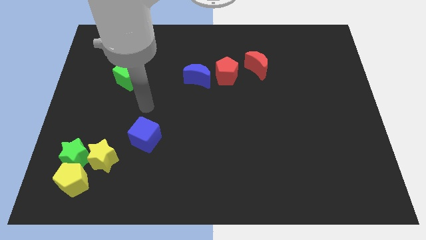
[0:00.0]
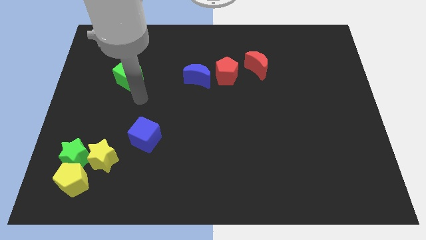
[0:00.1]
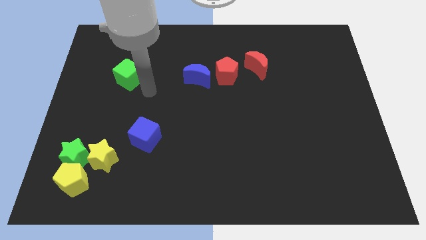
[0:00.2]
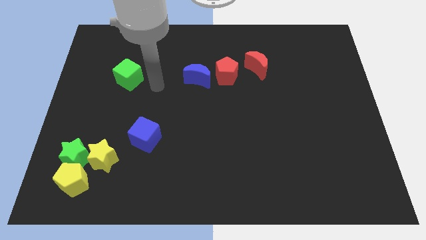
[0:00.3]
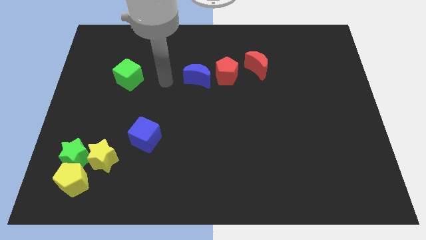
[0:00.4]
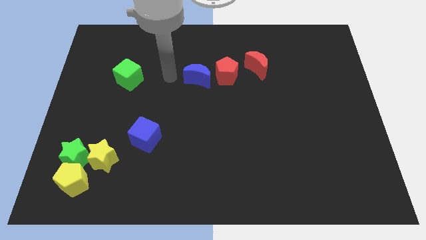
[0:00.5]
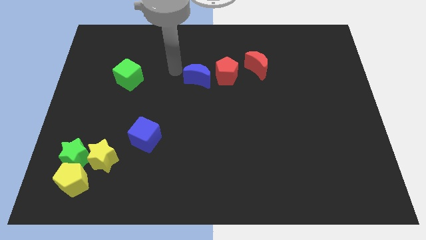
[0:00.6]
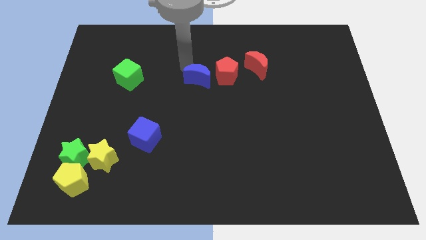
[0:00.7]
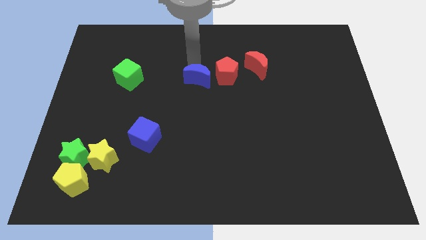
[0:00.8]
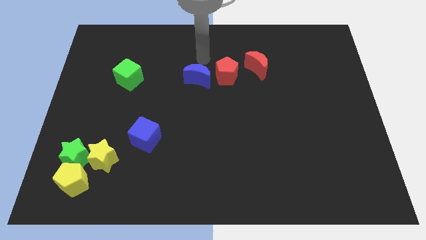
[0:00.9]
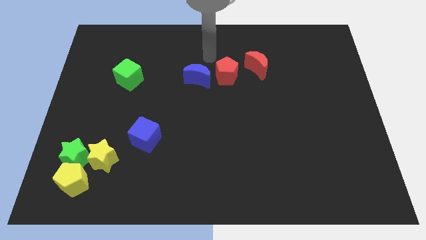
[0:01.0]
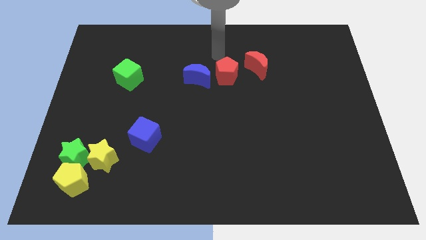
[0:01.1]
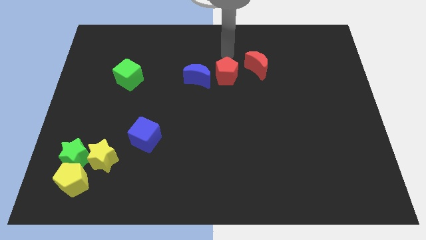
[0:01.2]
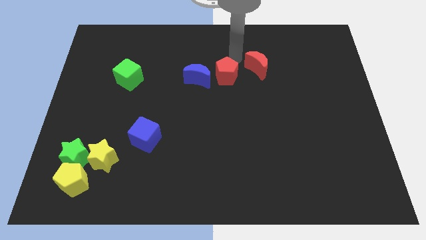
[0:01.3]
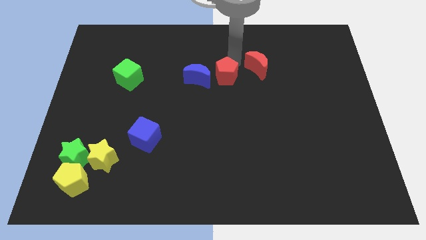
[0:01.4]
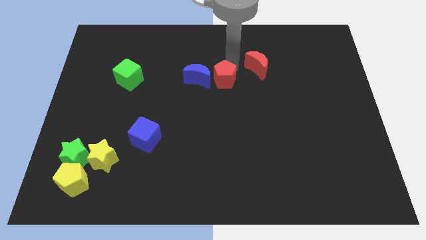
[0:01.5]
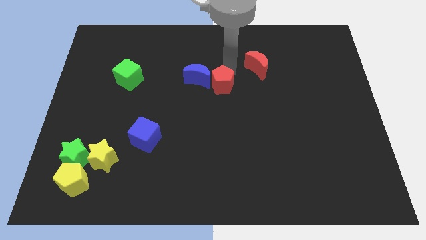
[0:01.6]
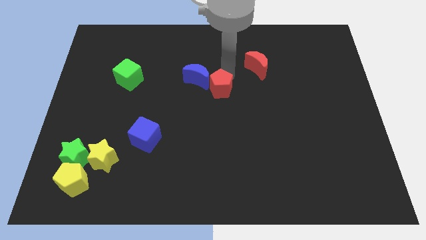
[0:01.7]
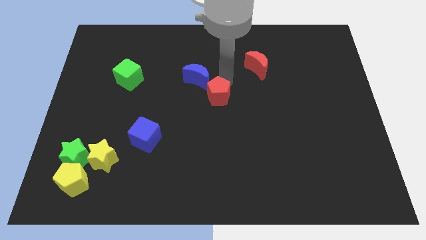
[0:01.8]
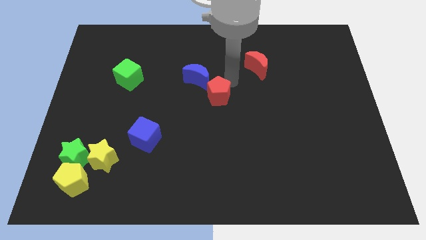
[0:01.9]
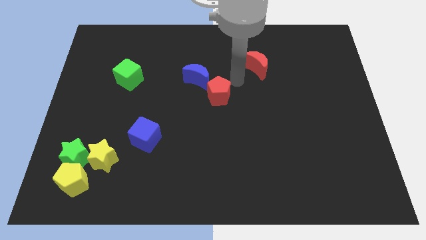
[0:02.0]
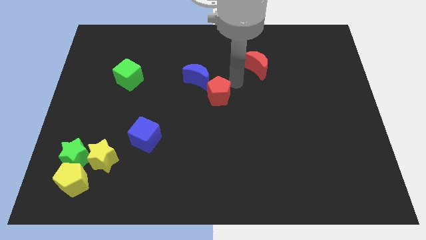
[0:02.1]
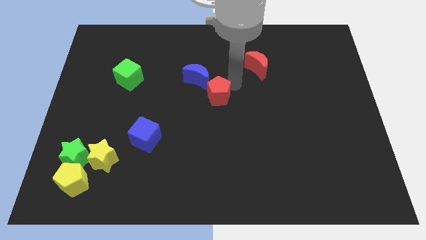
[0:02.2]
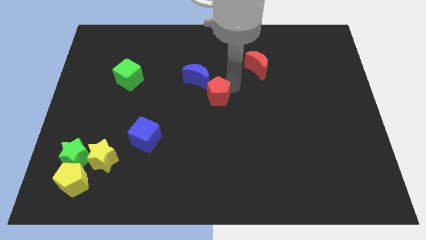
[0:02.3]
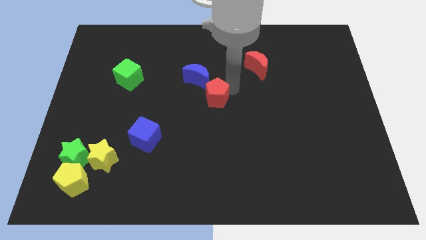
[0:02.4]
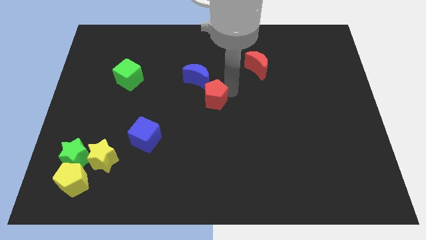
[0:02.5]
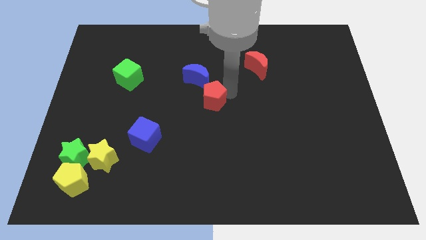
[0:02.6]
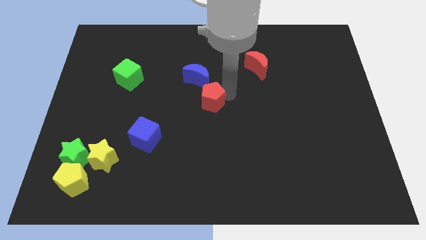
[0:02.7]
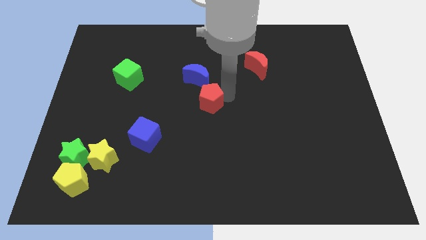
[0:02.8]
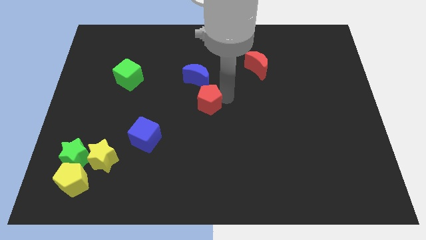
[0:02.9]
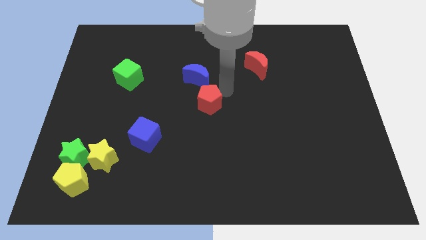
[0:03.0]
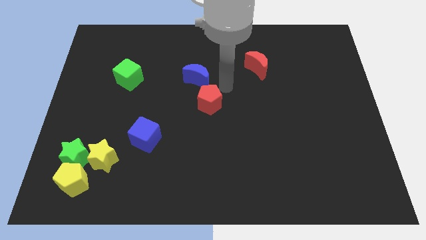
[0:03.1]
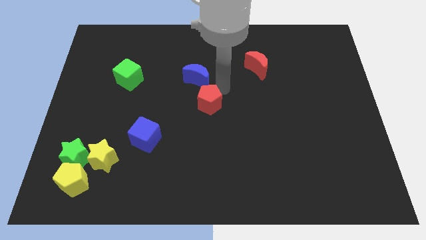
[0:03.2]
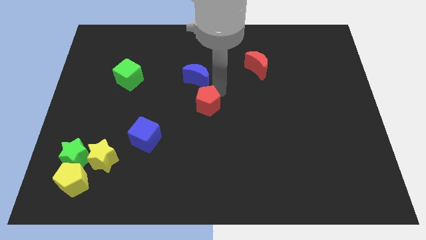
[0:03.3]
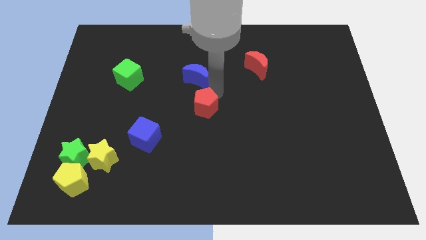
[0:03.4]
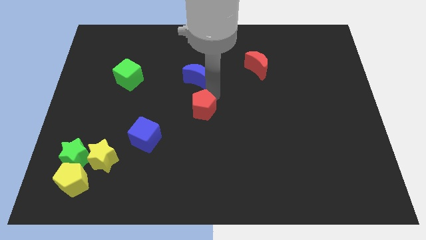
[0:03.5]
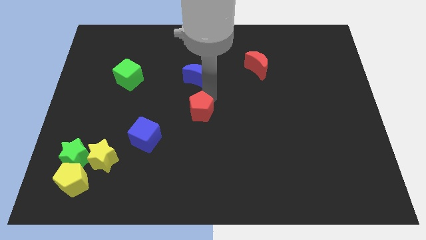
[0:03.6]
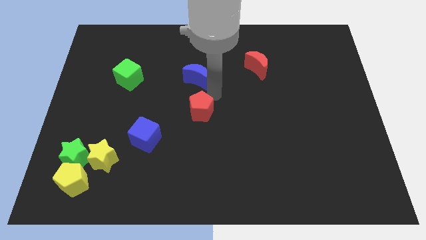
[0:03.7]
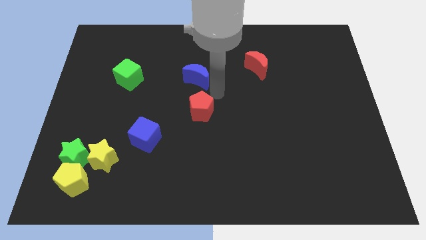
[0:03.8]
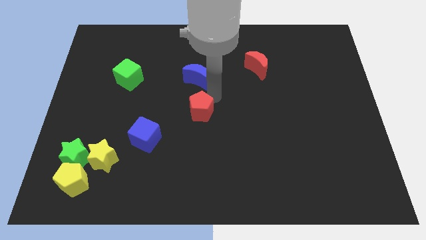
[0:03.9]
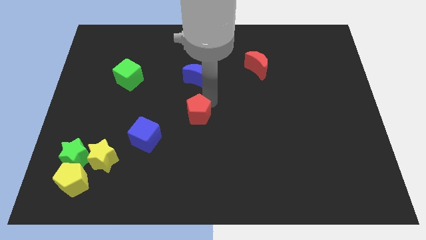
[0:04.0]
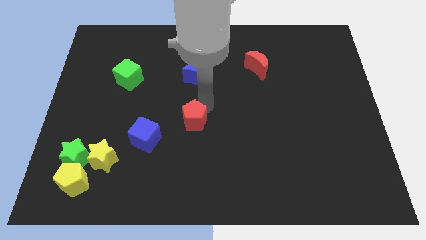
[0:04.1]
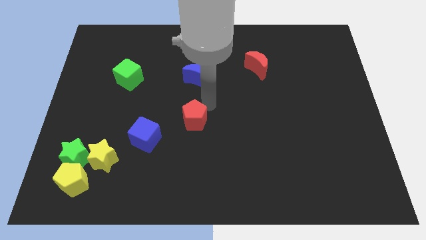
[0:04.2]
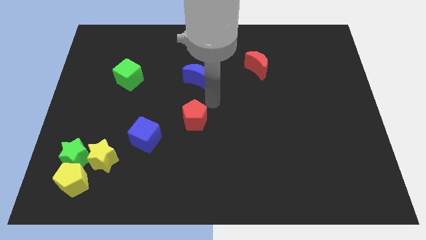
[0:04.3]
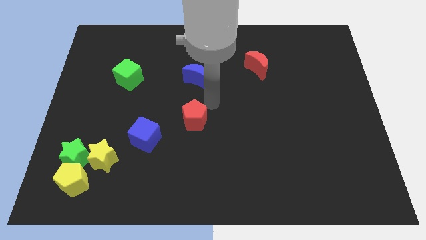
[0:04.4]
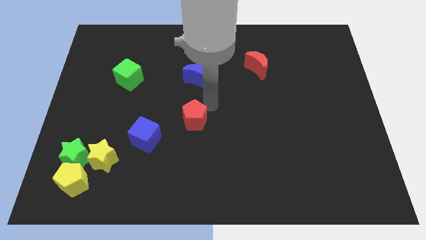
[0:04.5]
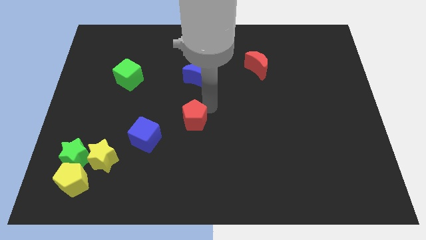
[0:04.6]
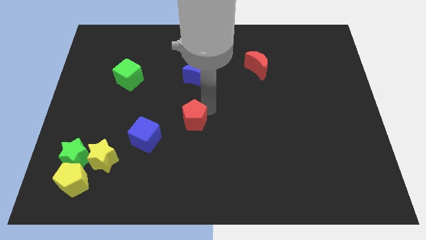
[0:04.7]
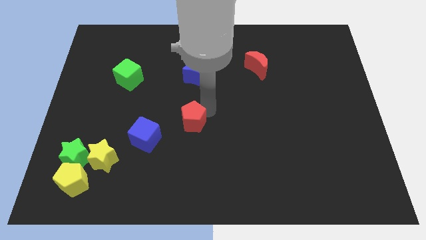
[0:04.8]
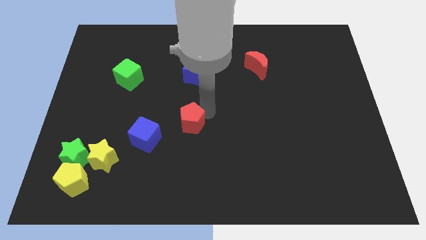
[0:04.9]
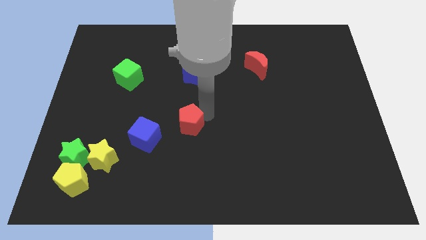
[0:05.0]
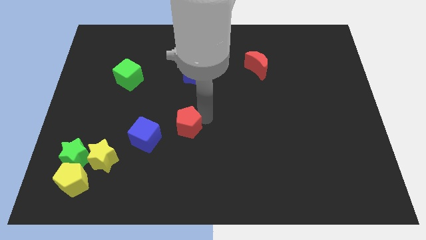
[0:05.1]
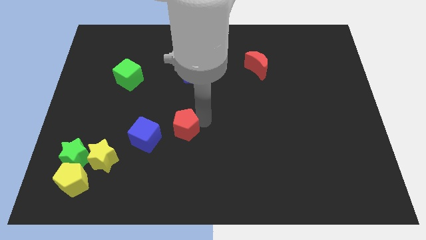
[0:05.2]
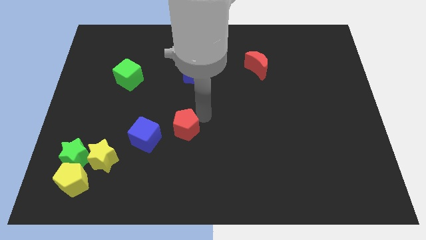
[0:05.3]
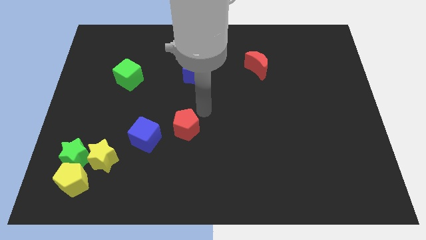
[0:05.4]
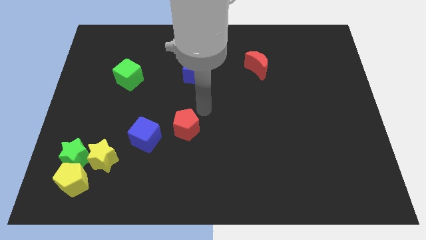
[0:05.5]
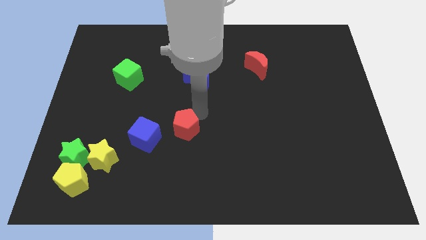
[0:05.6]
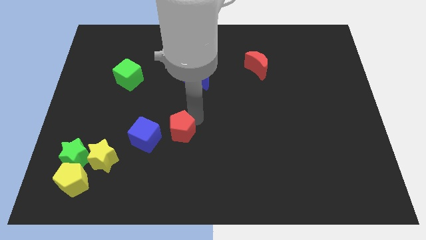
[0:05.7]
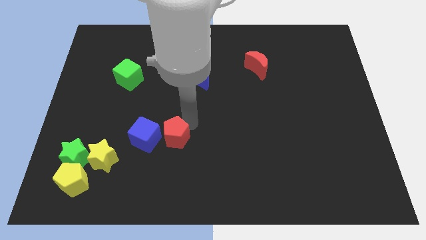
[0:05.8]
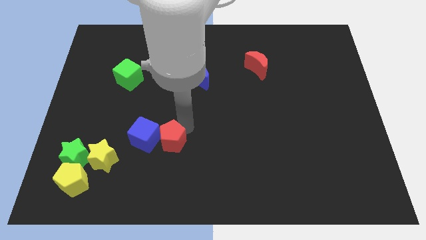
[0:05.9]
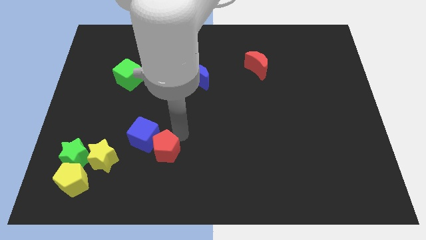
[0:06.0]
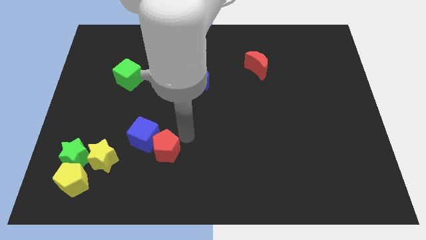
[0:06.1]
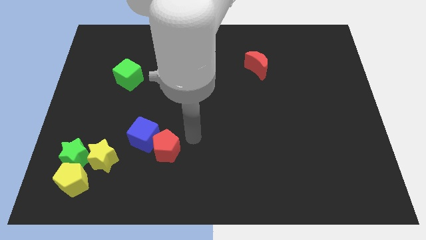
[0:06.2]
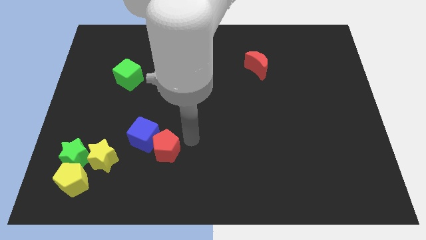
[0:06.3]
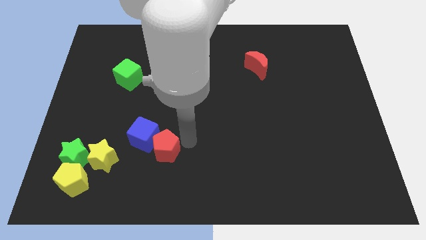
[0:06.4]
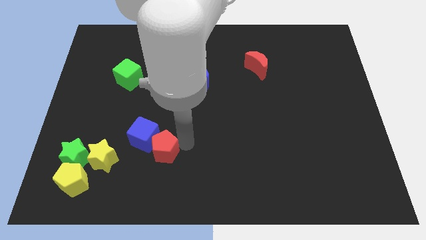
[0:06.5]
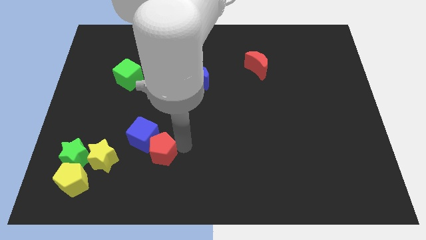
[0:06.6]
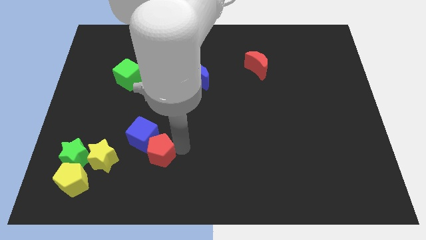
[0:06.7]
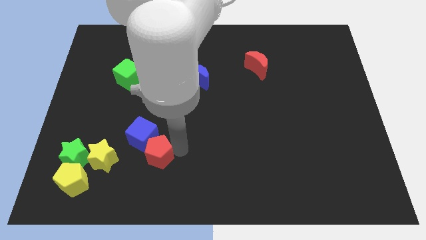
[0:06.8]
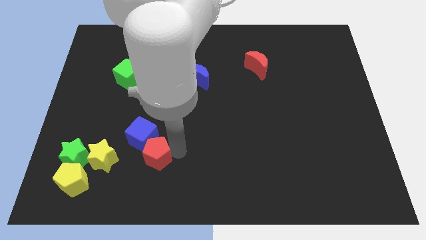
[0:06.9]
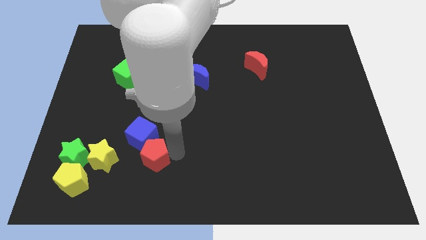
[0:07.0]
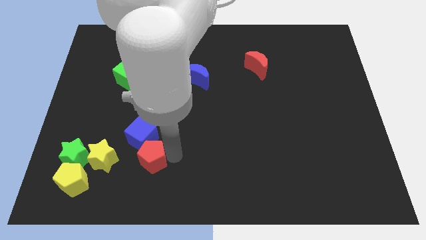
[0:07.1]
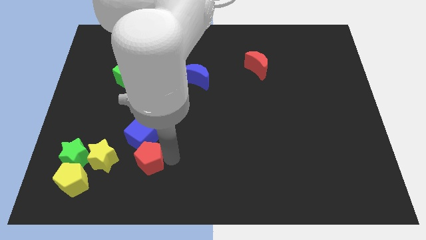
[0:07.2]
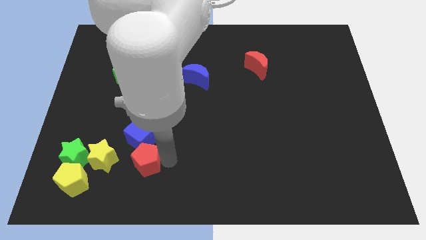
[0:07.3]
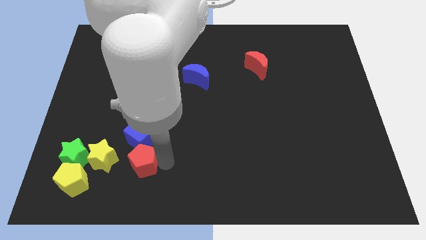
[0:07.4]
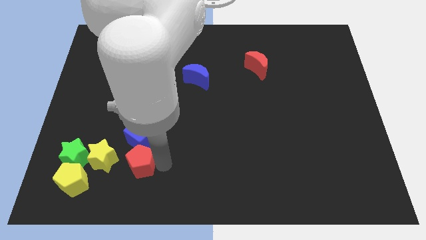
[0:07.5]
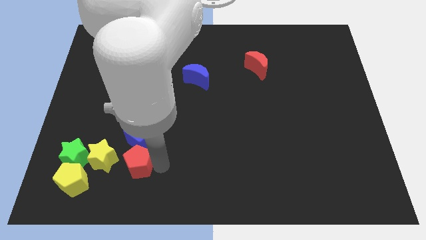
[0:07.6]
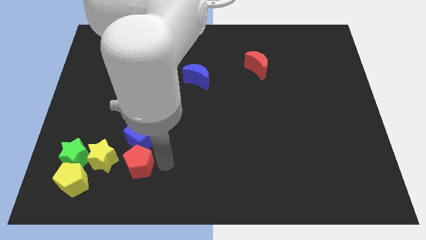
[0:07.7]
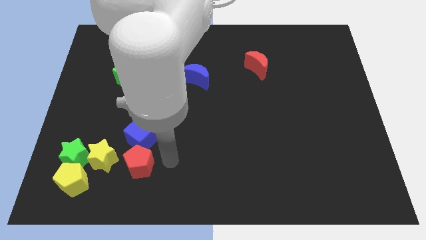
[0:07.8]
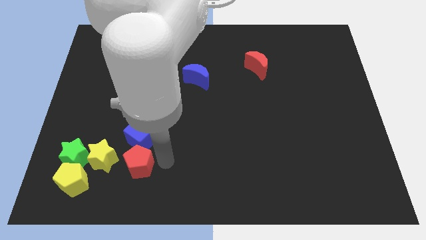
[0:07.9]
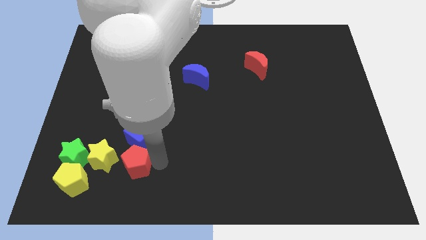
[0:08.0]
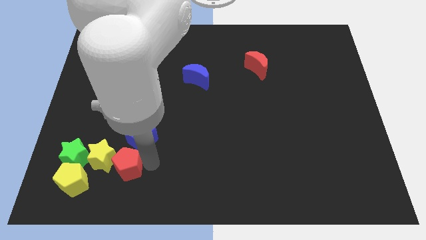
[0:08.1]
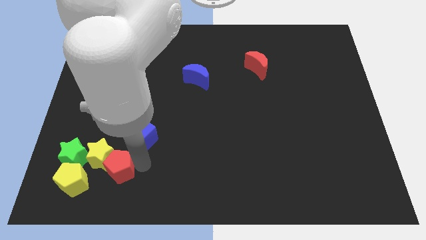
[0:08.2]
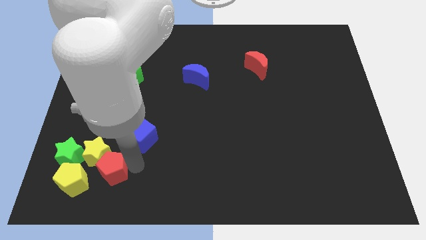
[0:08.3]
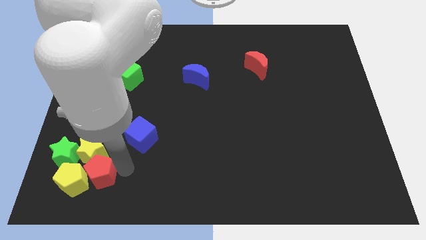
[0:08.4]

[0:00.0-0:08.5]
push the red pentagon next to the yellow pentagon
